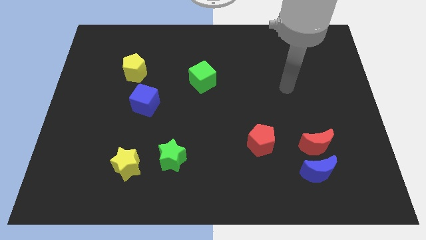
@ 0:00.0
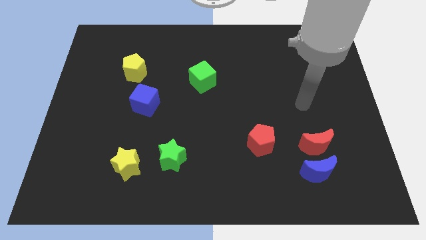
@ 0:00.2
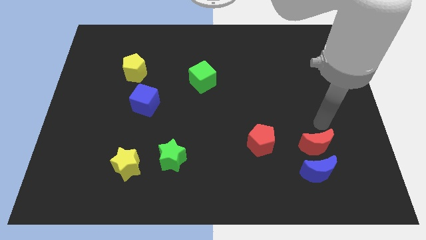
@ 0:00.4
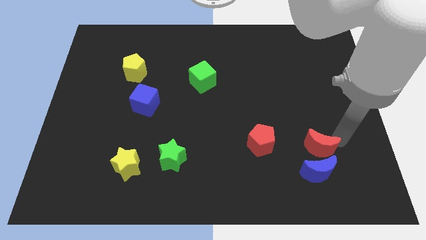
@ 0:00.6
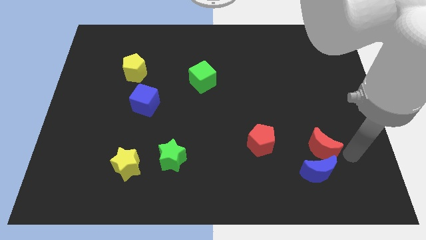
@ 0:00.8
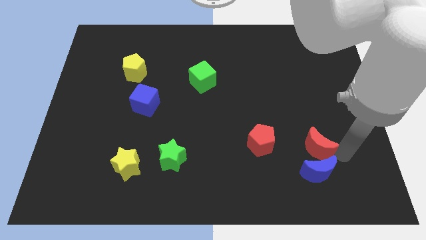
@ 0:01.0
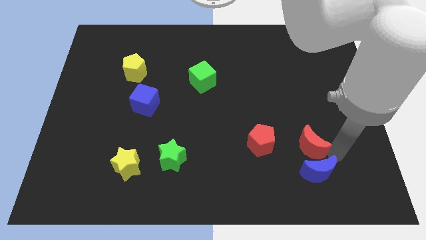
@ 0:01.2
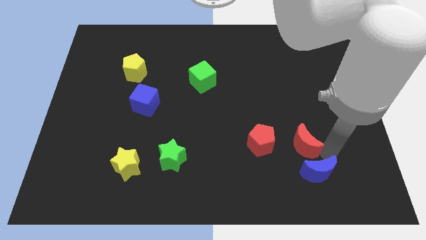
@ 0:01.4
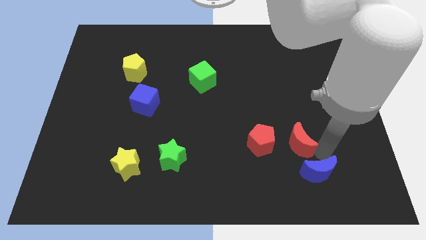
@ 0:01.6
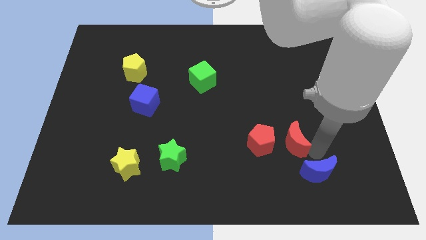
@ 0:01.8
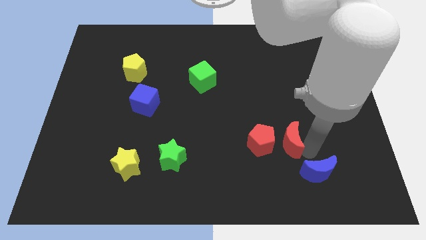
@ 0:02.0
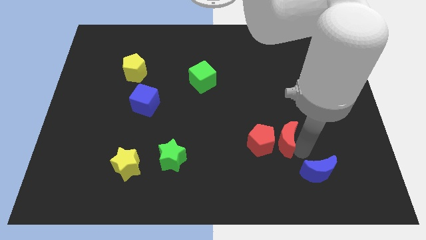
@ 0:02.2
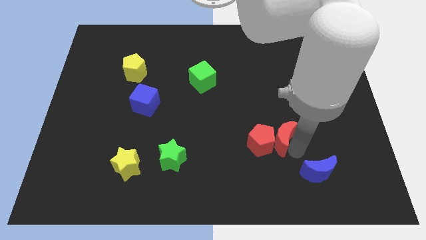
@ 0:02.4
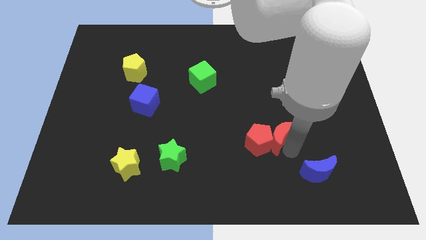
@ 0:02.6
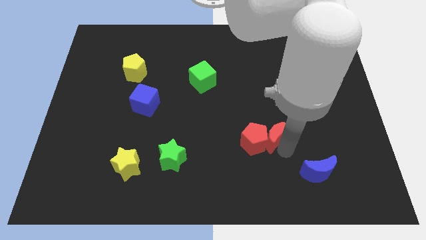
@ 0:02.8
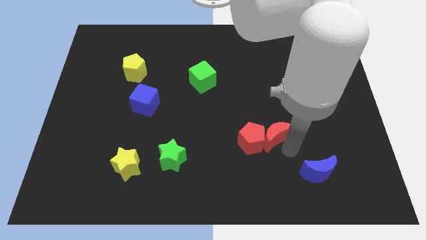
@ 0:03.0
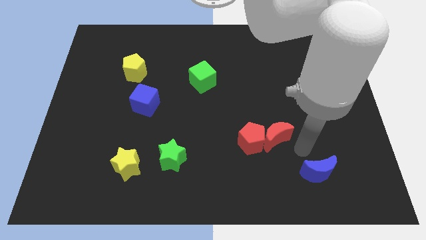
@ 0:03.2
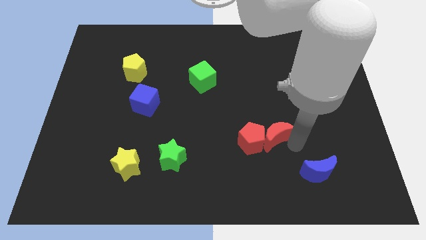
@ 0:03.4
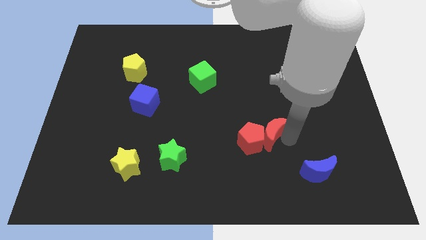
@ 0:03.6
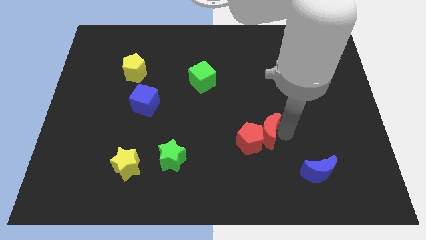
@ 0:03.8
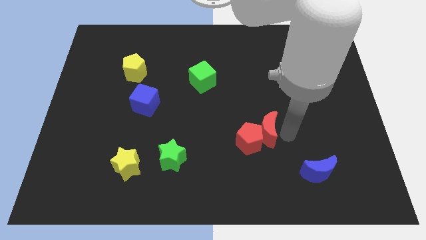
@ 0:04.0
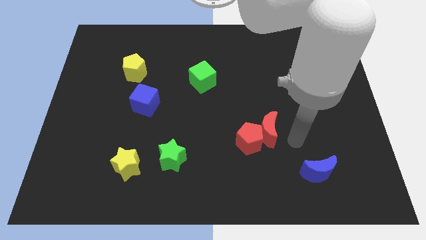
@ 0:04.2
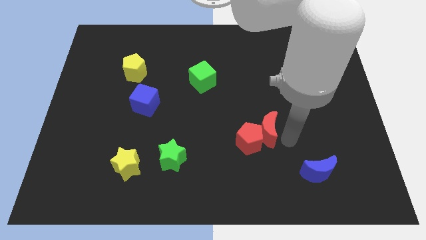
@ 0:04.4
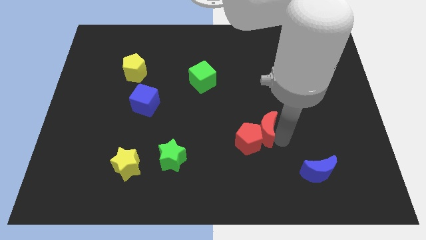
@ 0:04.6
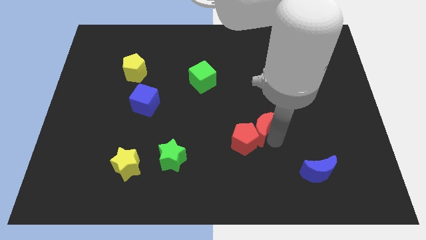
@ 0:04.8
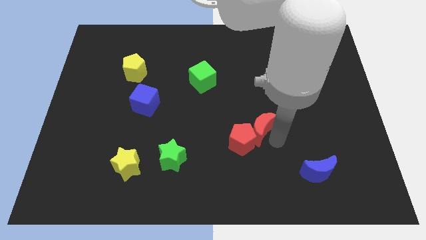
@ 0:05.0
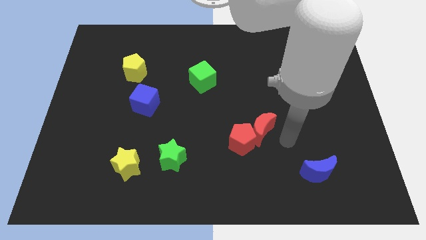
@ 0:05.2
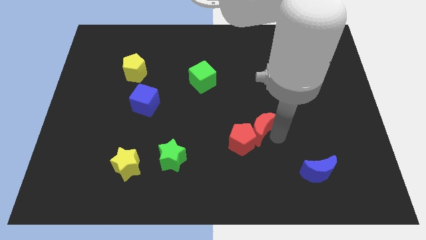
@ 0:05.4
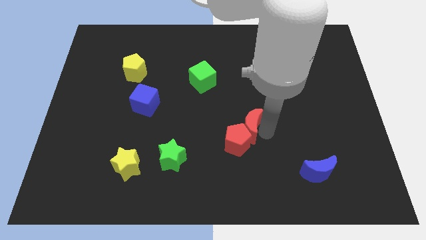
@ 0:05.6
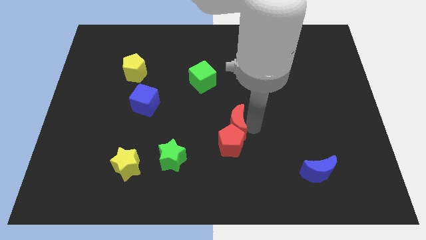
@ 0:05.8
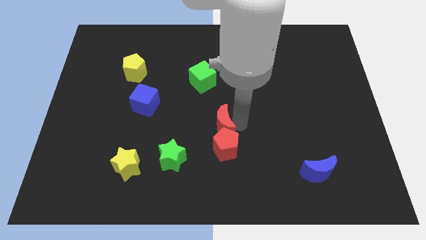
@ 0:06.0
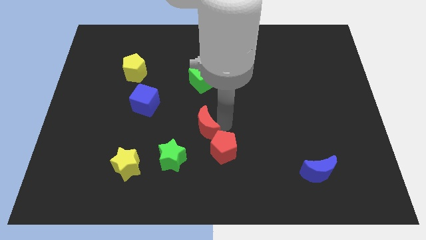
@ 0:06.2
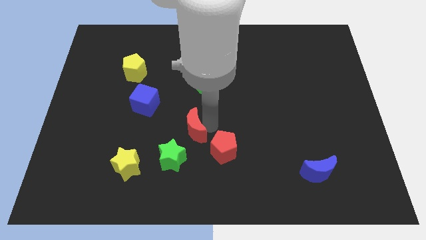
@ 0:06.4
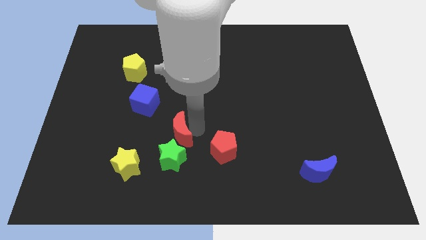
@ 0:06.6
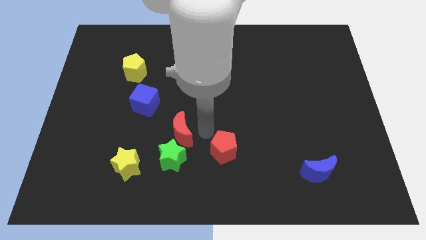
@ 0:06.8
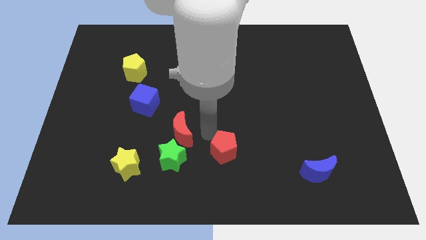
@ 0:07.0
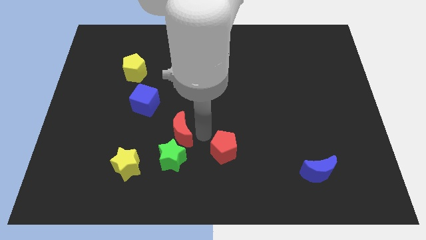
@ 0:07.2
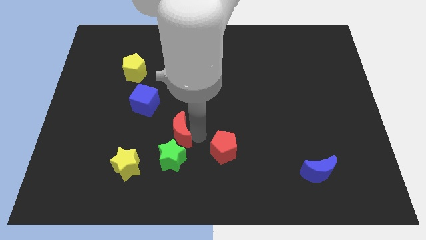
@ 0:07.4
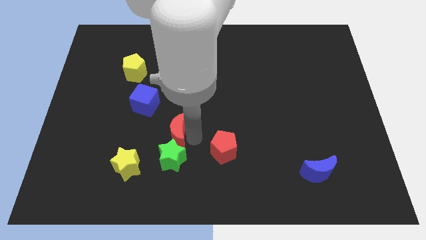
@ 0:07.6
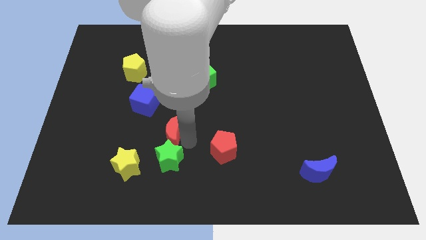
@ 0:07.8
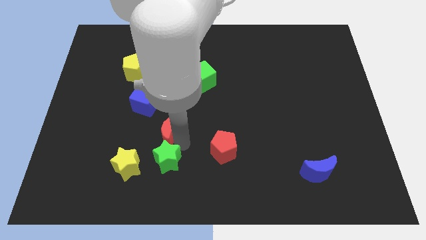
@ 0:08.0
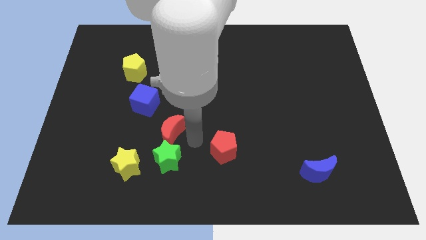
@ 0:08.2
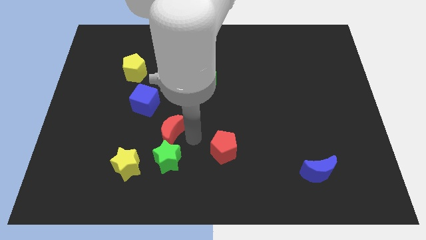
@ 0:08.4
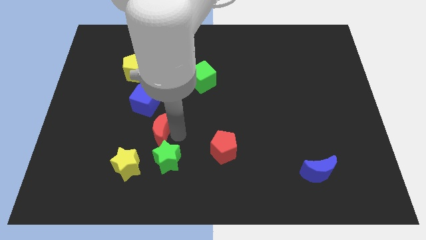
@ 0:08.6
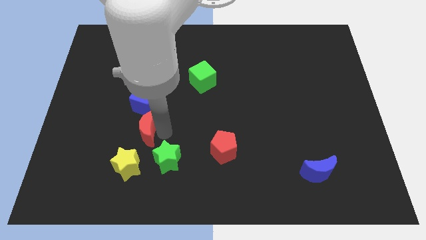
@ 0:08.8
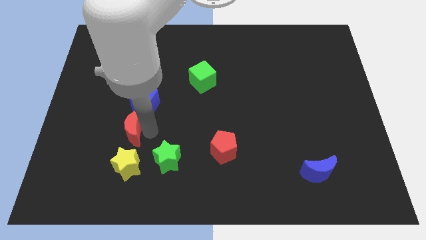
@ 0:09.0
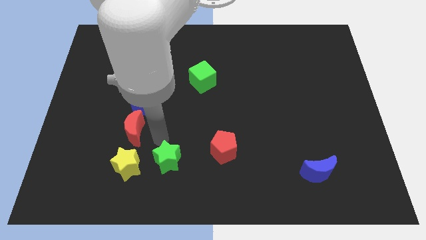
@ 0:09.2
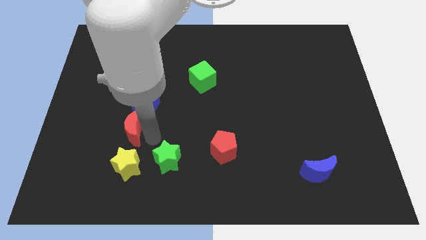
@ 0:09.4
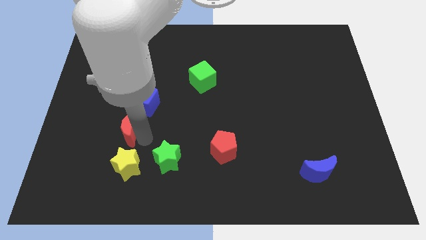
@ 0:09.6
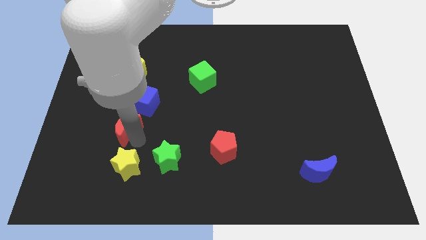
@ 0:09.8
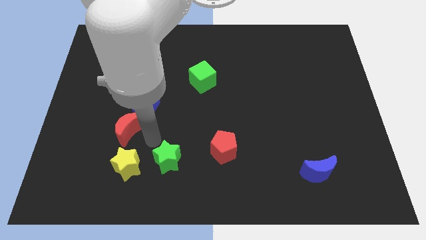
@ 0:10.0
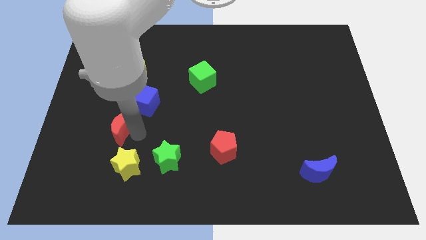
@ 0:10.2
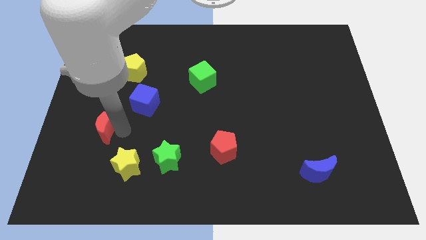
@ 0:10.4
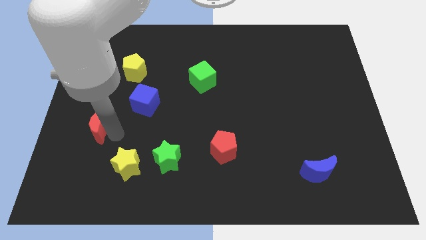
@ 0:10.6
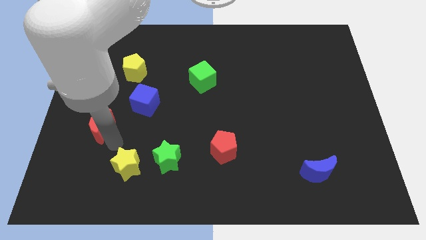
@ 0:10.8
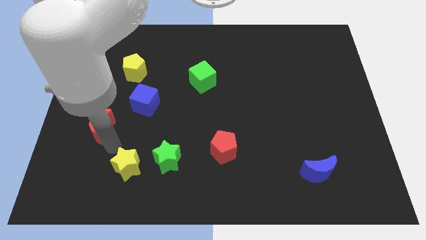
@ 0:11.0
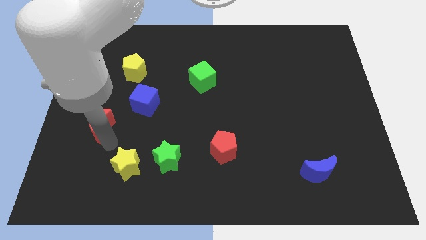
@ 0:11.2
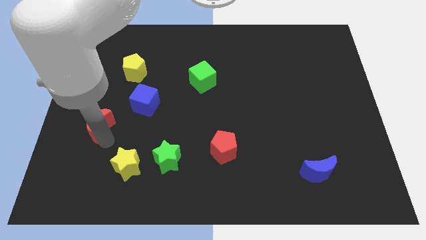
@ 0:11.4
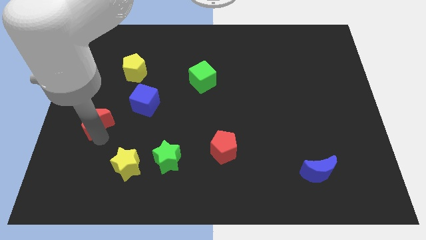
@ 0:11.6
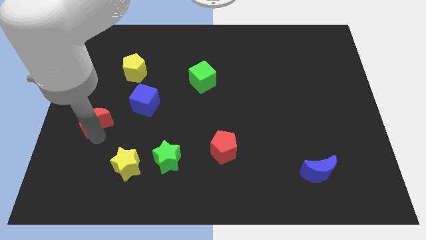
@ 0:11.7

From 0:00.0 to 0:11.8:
slide the red moon to the left side of the board

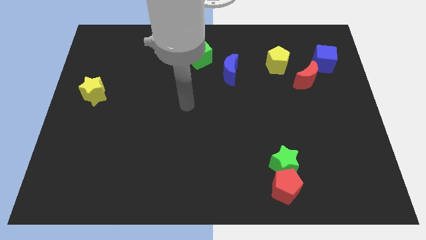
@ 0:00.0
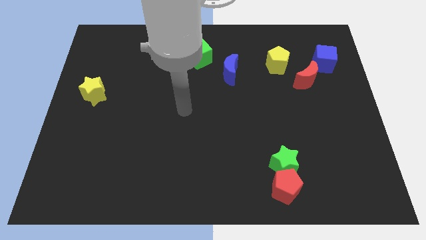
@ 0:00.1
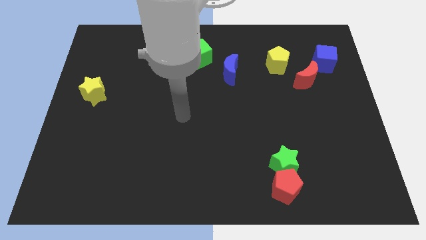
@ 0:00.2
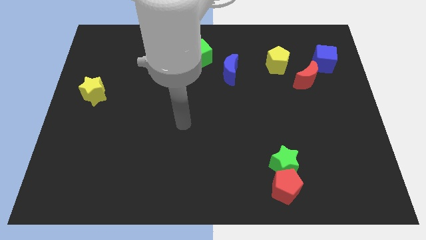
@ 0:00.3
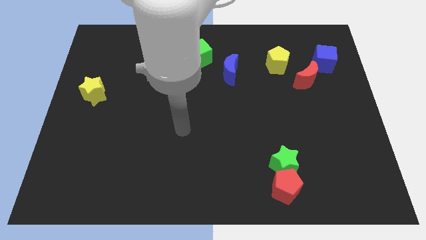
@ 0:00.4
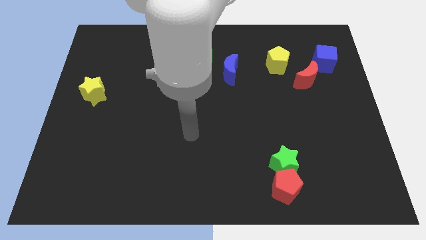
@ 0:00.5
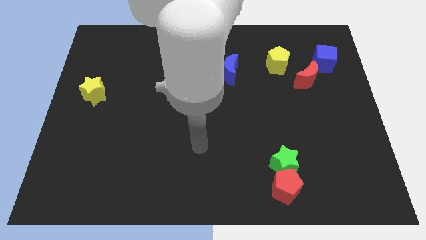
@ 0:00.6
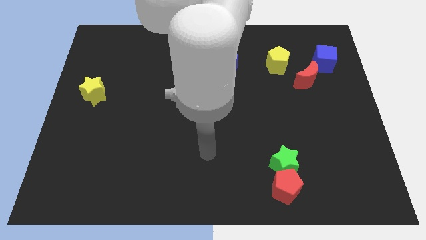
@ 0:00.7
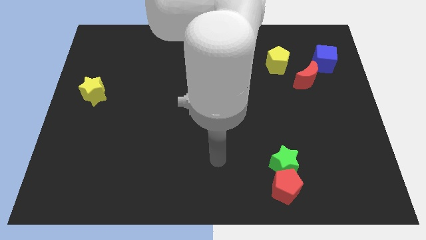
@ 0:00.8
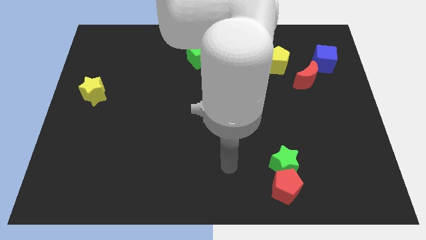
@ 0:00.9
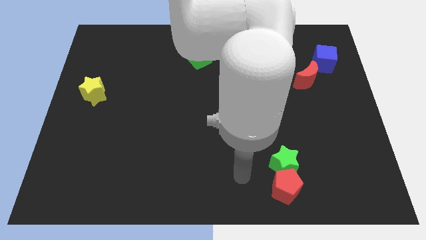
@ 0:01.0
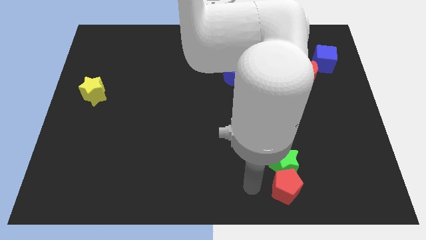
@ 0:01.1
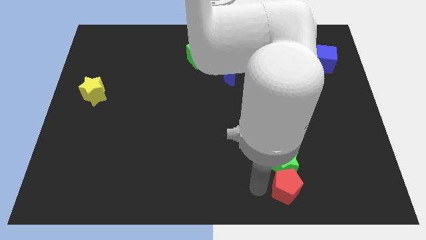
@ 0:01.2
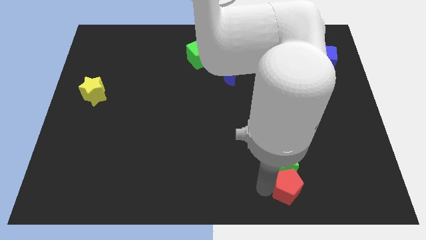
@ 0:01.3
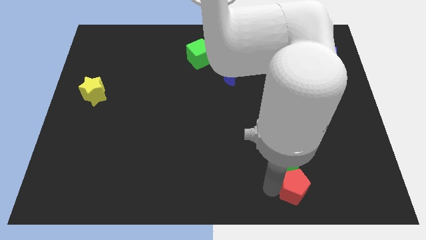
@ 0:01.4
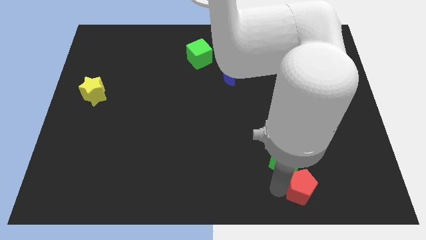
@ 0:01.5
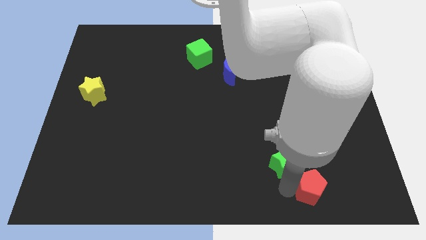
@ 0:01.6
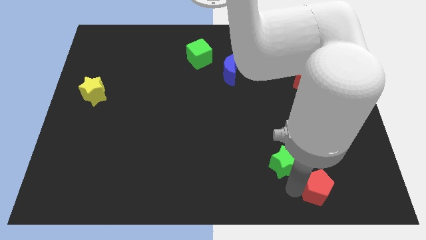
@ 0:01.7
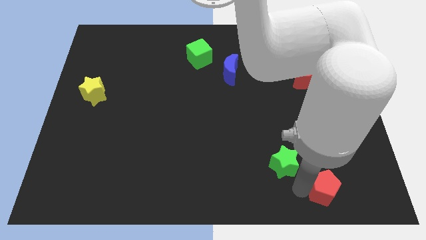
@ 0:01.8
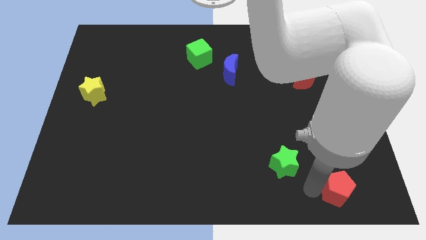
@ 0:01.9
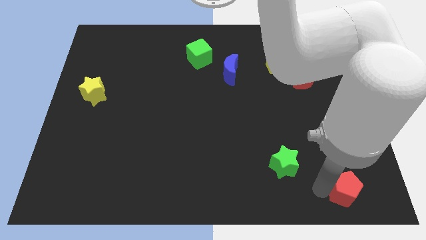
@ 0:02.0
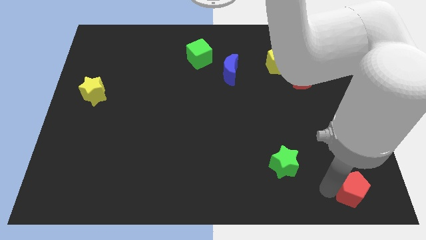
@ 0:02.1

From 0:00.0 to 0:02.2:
put the red pentagon to the bottom right corner
